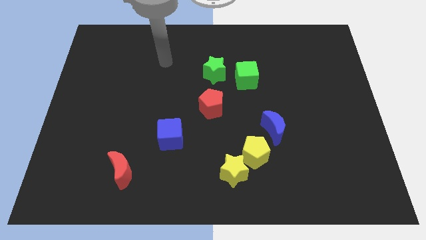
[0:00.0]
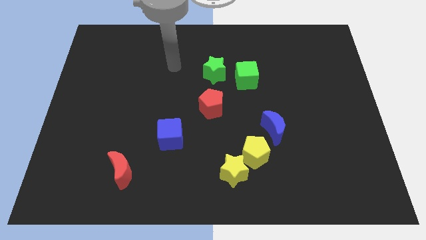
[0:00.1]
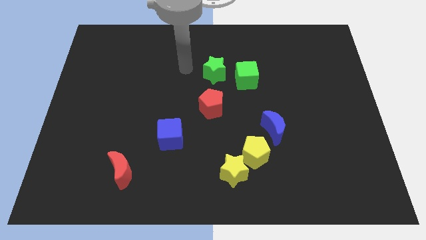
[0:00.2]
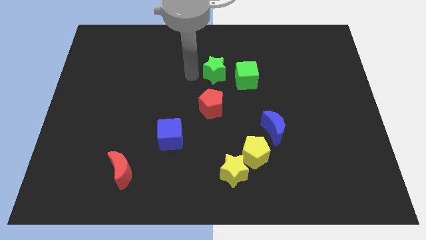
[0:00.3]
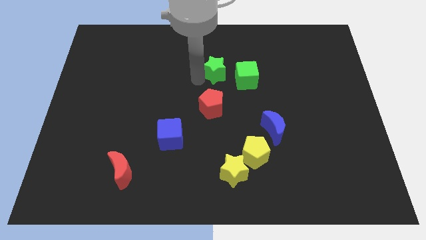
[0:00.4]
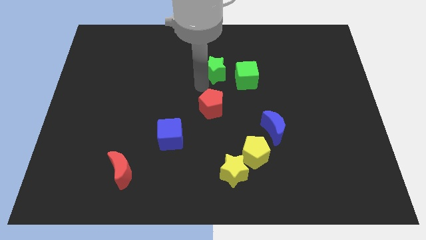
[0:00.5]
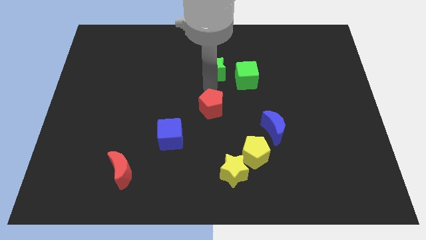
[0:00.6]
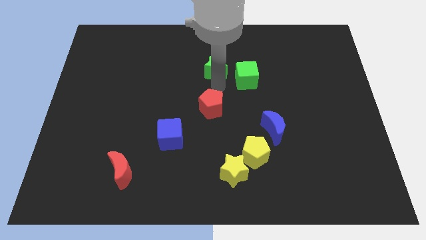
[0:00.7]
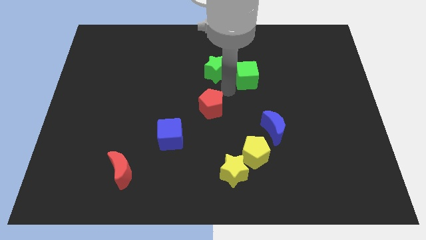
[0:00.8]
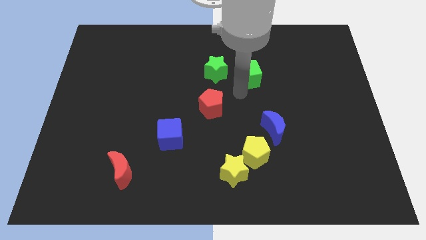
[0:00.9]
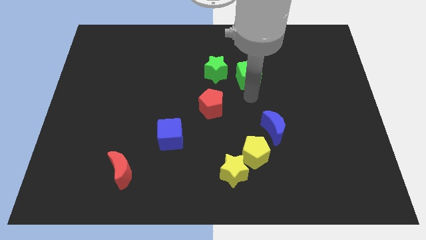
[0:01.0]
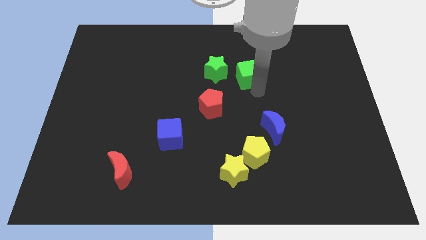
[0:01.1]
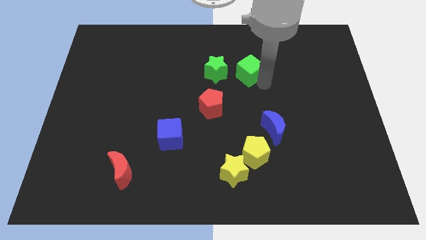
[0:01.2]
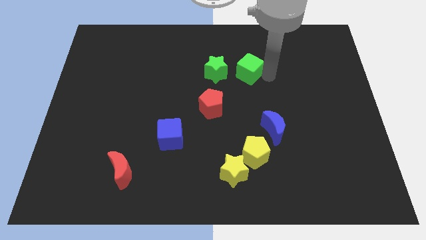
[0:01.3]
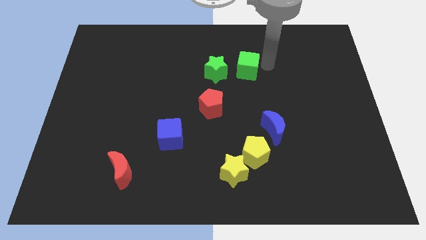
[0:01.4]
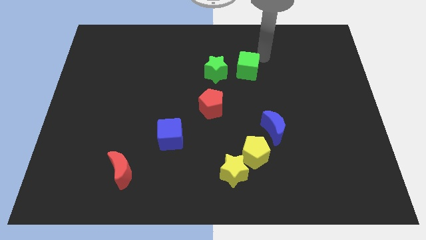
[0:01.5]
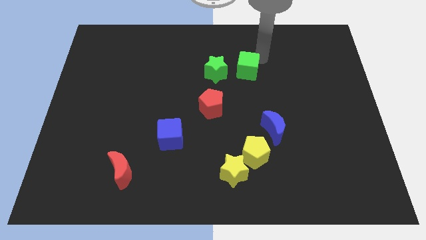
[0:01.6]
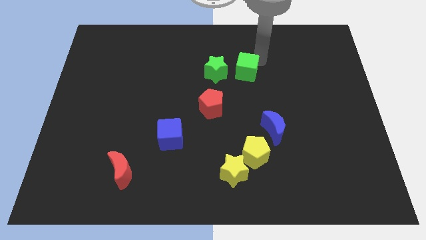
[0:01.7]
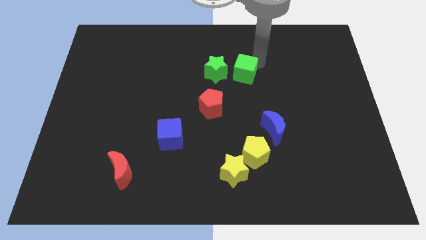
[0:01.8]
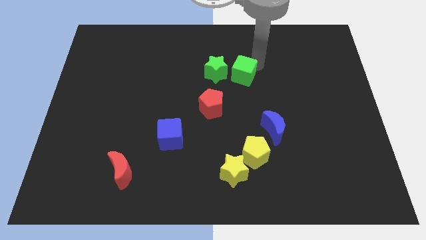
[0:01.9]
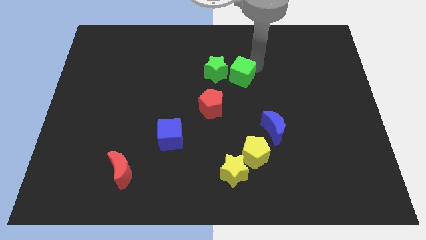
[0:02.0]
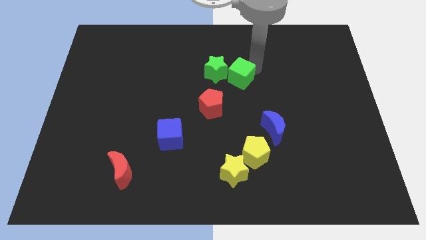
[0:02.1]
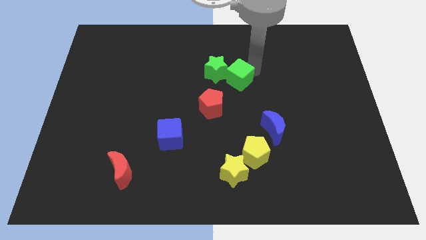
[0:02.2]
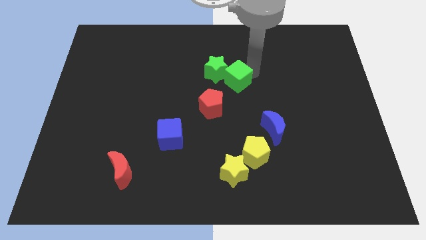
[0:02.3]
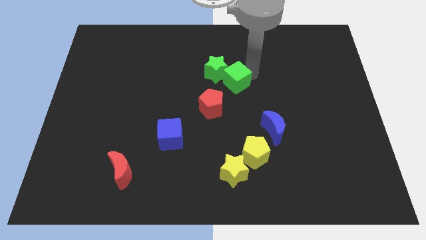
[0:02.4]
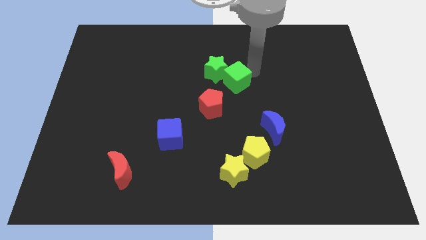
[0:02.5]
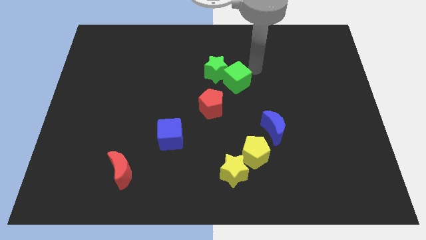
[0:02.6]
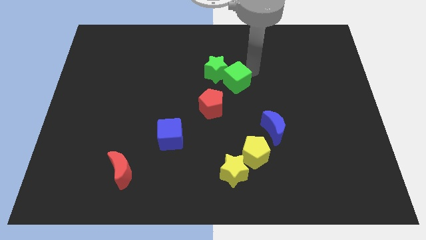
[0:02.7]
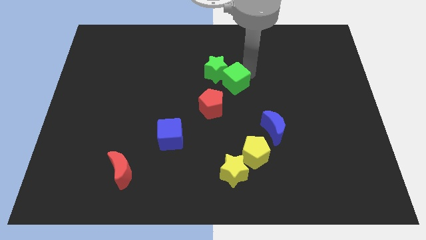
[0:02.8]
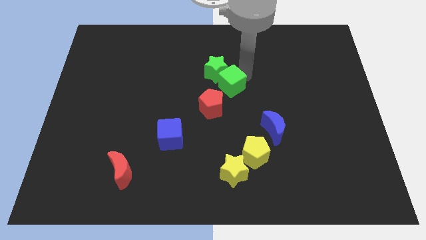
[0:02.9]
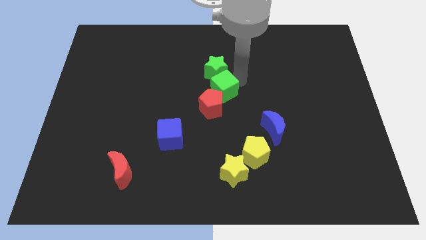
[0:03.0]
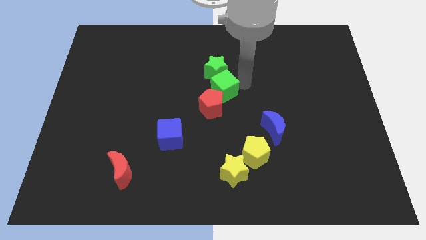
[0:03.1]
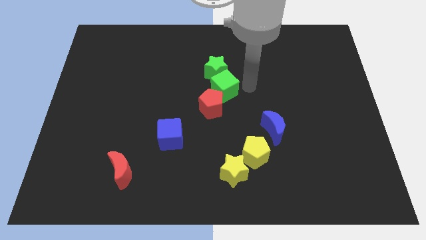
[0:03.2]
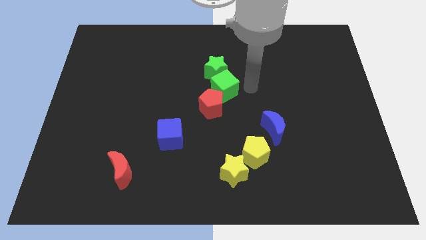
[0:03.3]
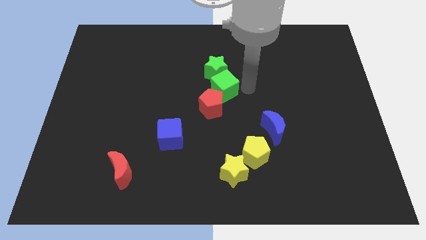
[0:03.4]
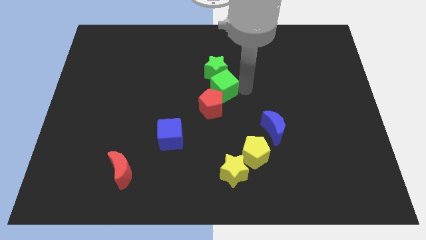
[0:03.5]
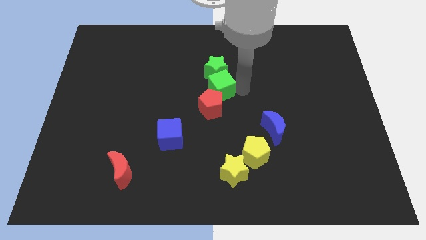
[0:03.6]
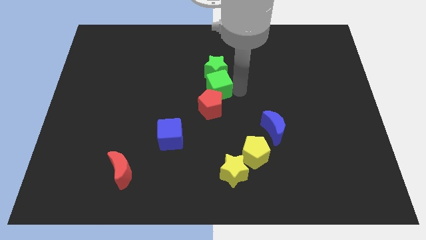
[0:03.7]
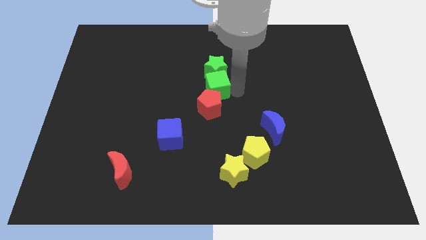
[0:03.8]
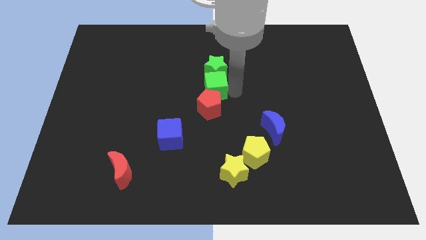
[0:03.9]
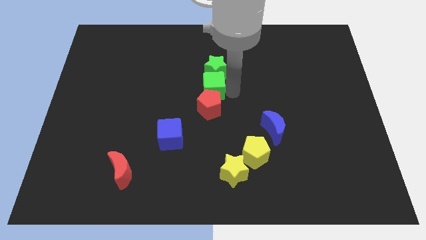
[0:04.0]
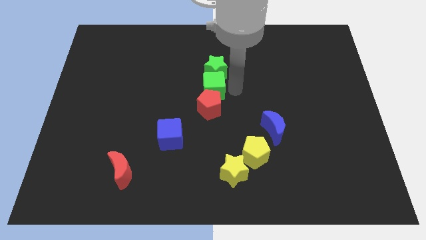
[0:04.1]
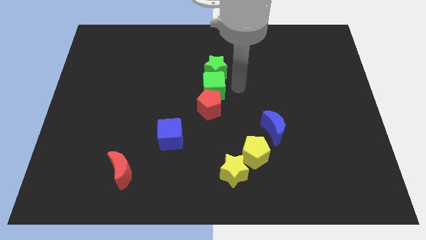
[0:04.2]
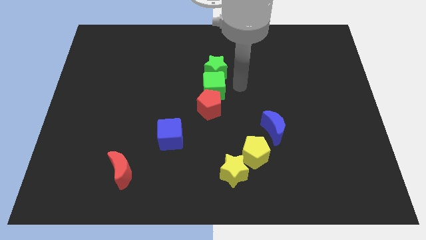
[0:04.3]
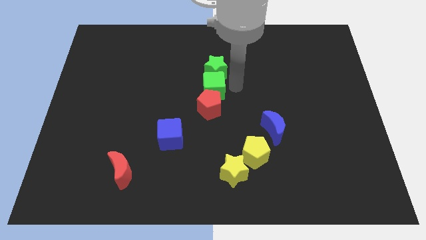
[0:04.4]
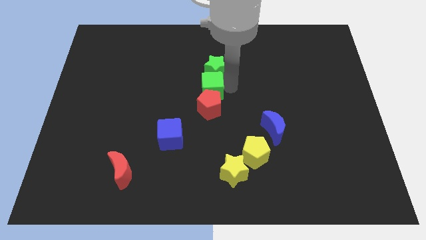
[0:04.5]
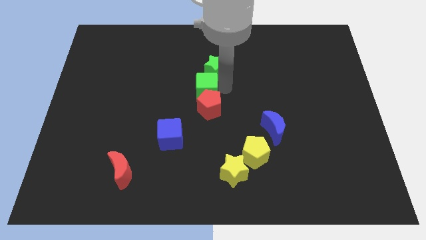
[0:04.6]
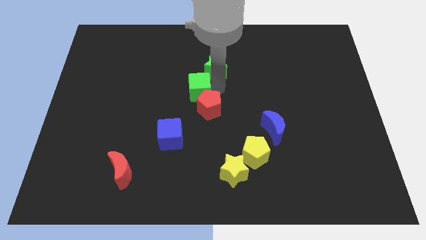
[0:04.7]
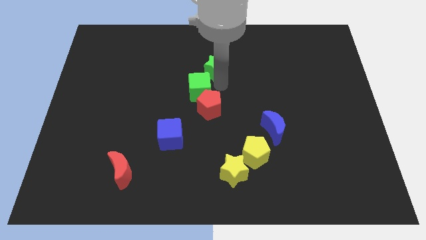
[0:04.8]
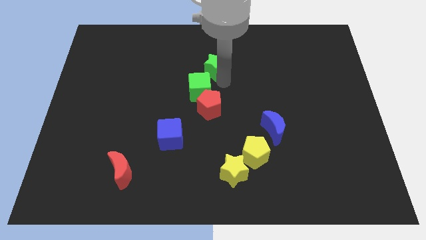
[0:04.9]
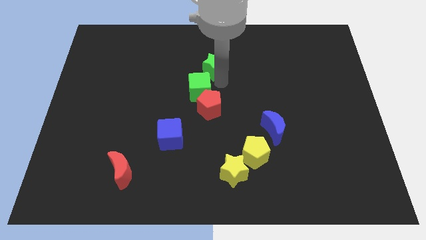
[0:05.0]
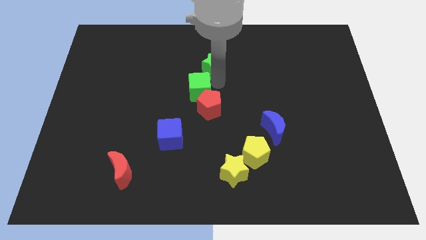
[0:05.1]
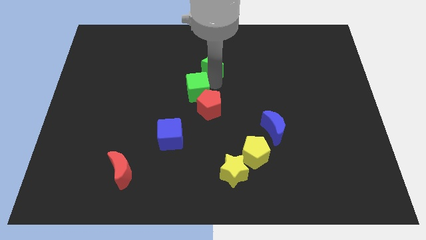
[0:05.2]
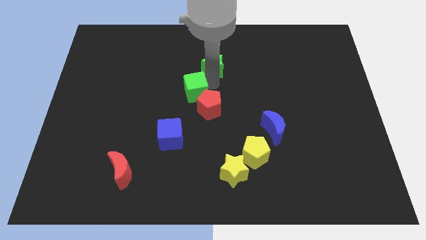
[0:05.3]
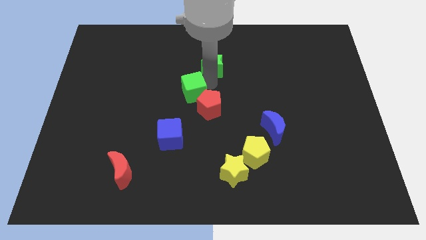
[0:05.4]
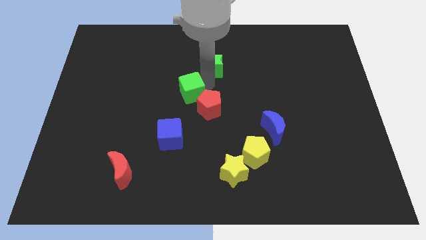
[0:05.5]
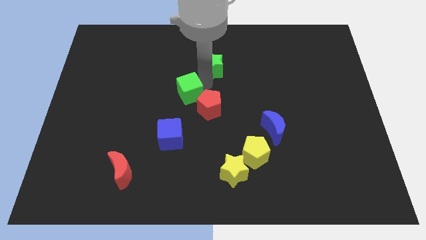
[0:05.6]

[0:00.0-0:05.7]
move the green cube to the left of the red pentagon

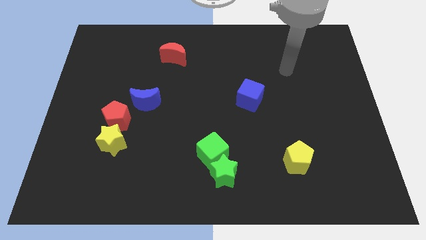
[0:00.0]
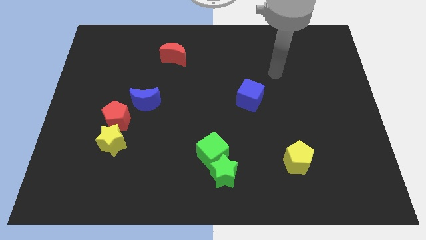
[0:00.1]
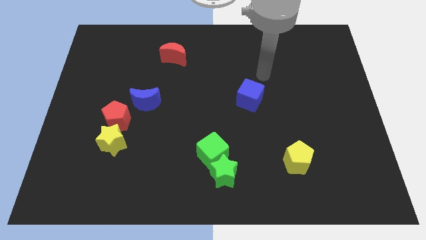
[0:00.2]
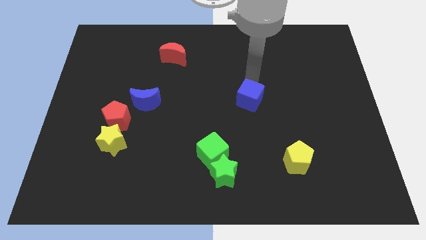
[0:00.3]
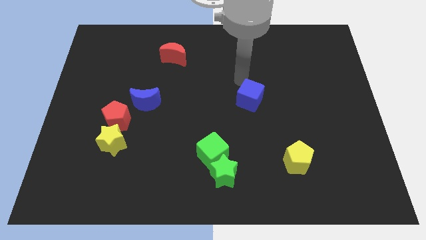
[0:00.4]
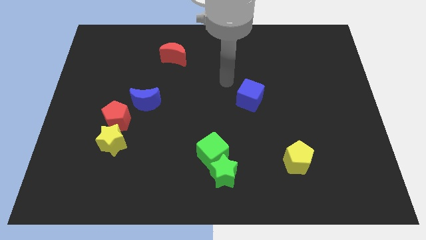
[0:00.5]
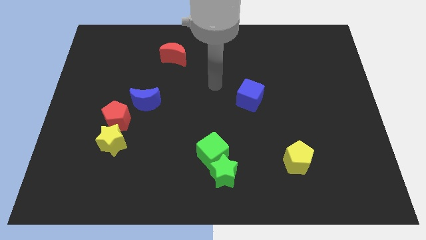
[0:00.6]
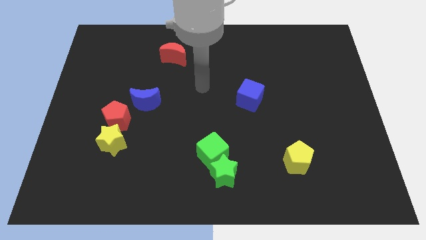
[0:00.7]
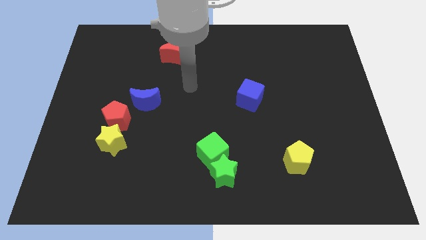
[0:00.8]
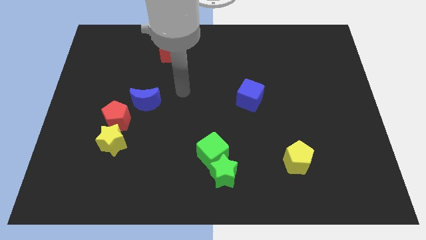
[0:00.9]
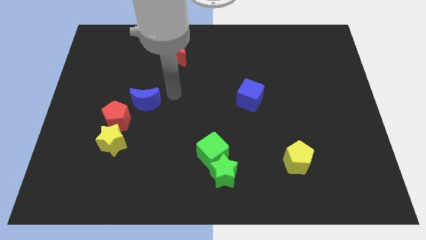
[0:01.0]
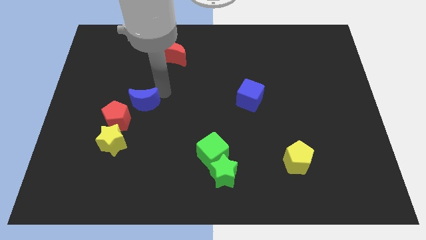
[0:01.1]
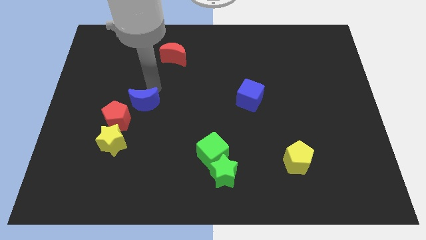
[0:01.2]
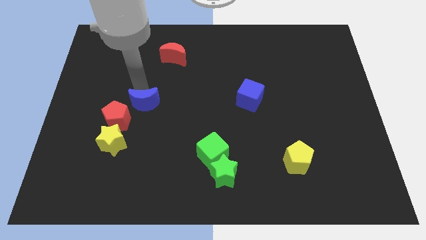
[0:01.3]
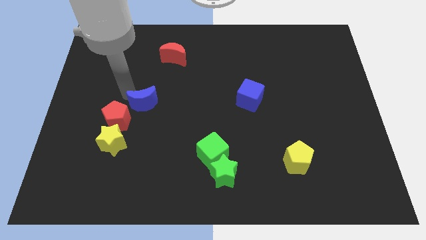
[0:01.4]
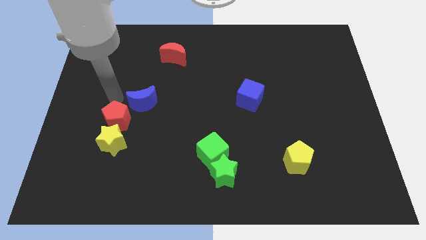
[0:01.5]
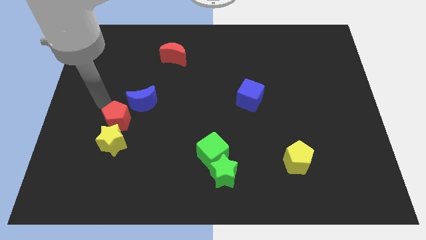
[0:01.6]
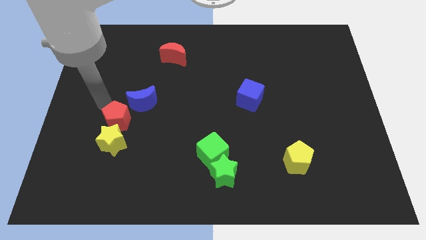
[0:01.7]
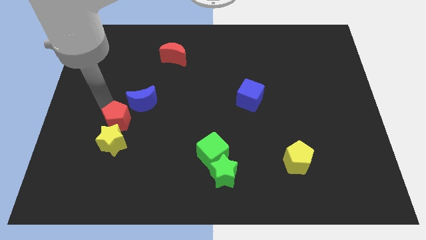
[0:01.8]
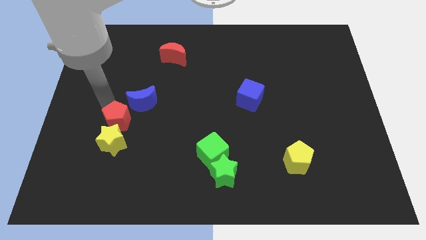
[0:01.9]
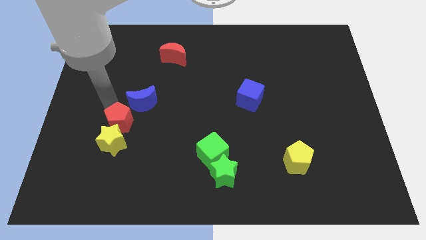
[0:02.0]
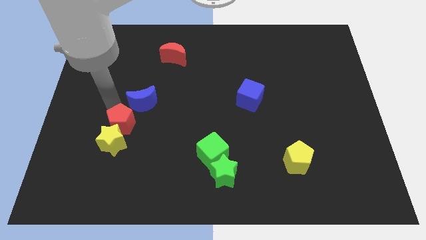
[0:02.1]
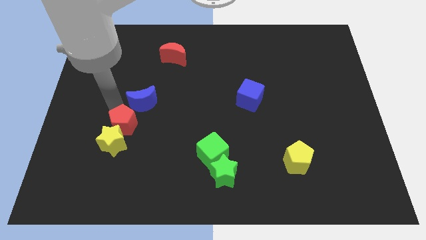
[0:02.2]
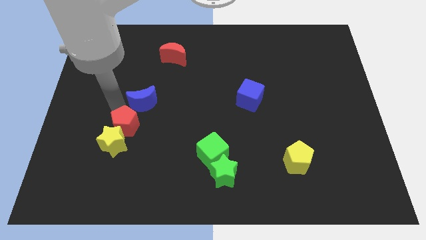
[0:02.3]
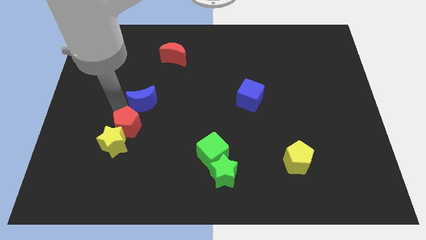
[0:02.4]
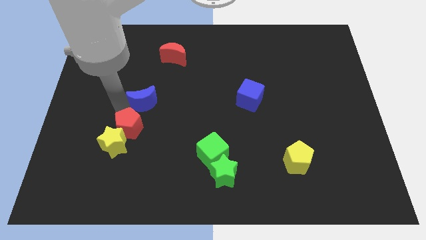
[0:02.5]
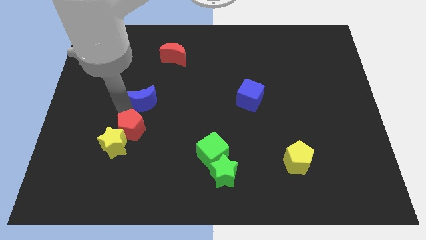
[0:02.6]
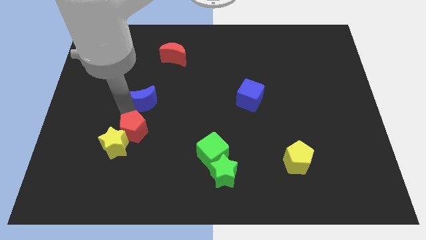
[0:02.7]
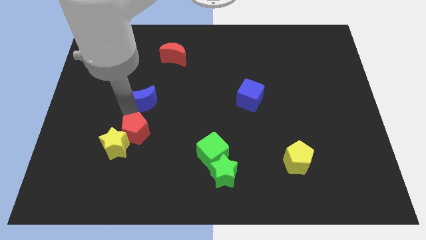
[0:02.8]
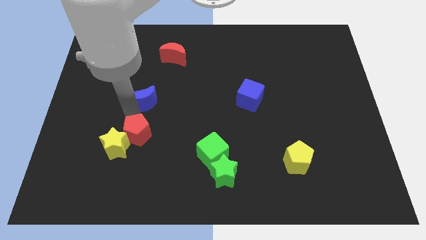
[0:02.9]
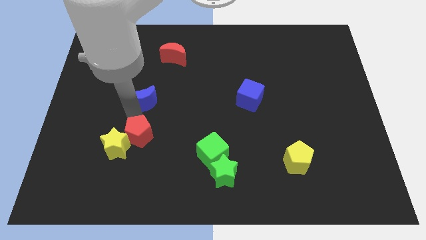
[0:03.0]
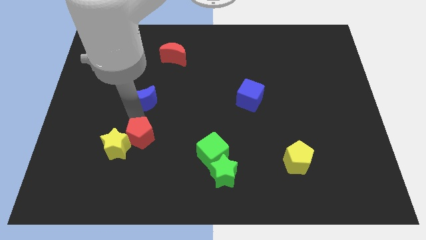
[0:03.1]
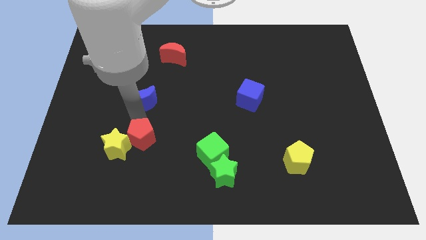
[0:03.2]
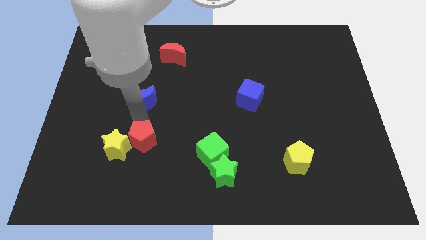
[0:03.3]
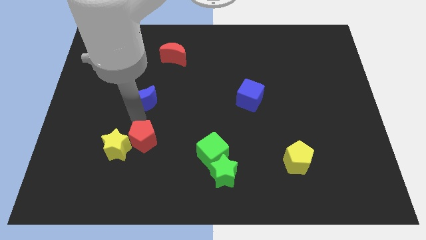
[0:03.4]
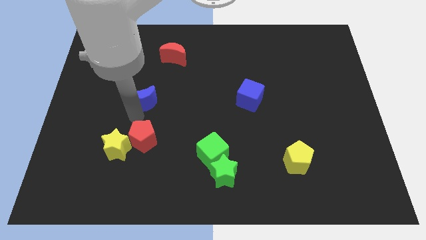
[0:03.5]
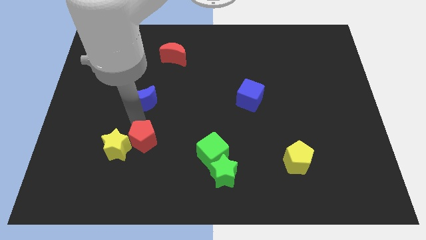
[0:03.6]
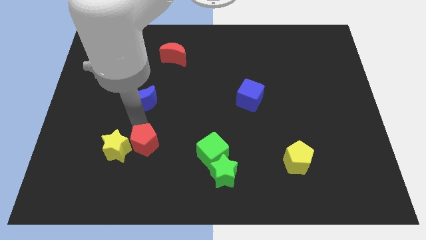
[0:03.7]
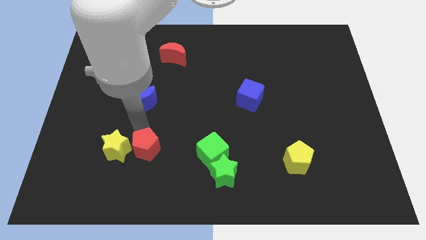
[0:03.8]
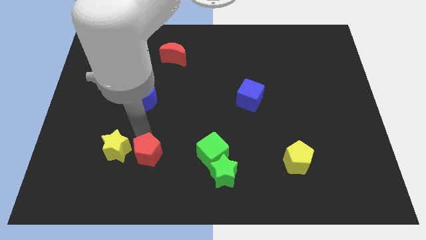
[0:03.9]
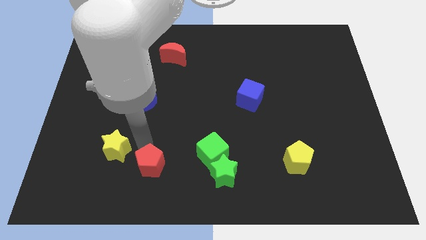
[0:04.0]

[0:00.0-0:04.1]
push the red pentagon just left of the green star
